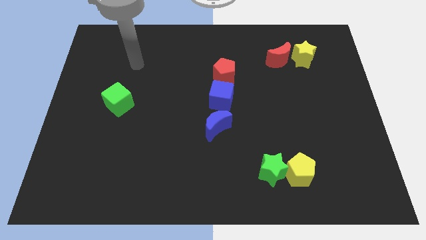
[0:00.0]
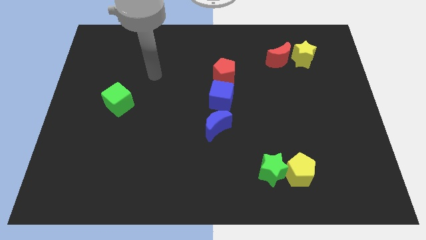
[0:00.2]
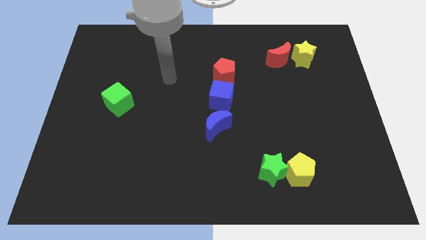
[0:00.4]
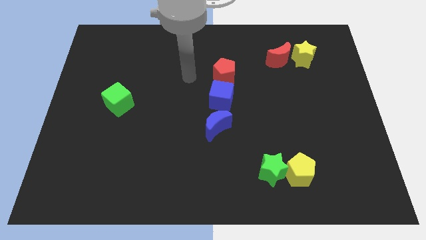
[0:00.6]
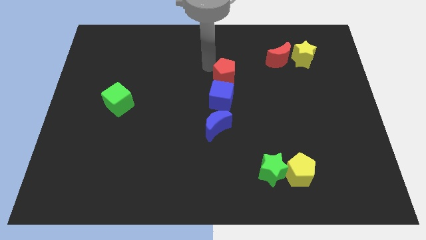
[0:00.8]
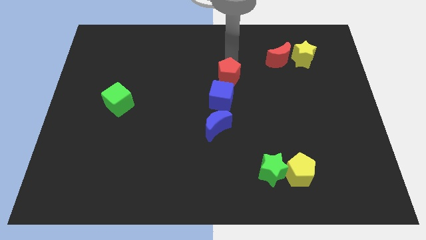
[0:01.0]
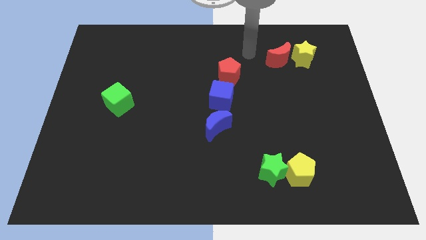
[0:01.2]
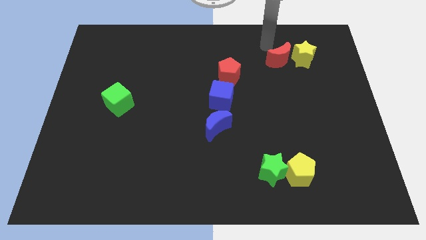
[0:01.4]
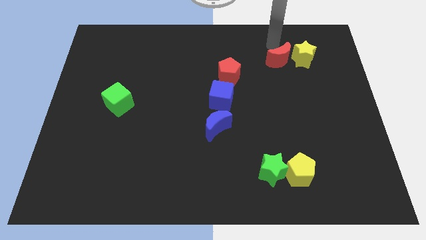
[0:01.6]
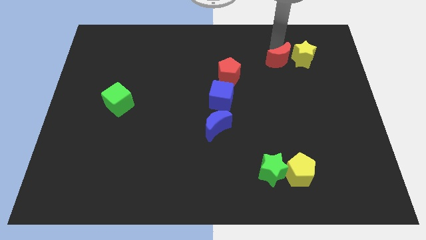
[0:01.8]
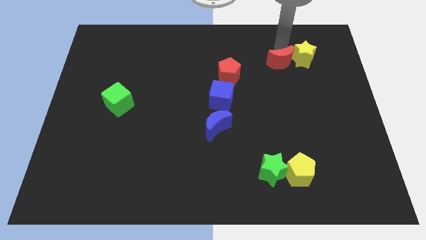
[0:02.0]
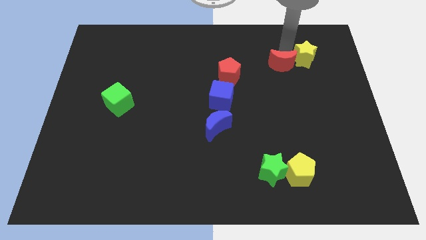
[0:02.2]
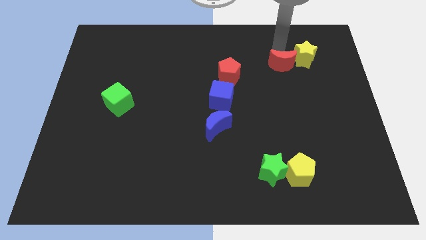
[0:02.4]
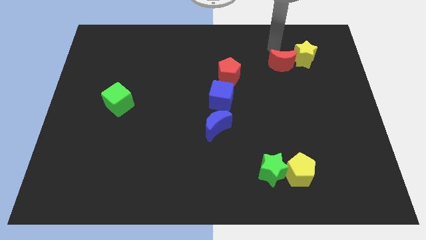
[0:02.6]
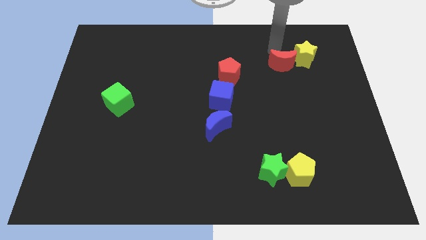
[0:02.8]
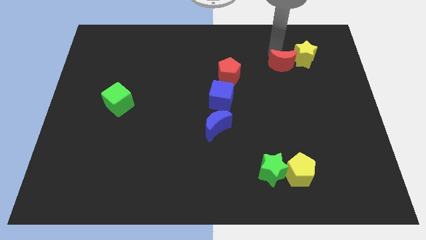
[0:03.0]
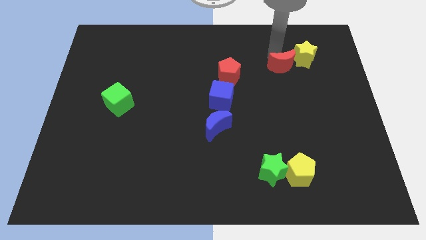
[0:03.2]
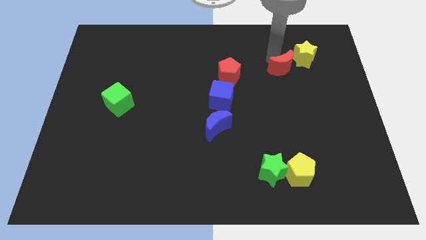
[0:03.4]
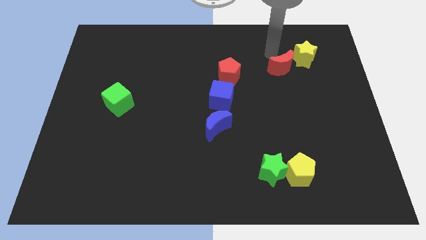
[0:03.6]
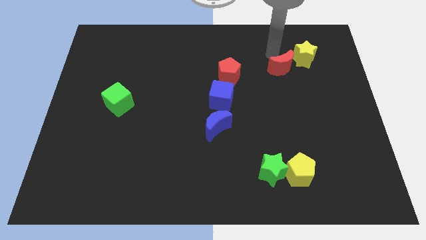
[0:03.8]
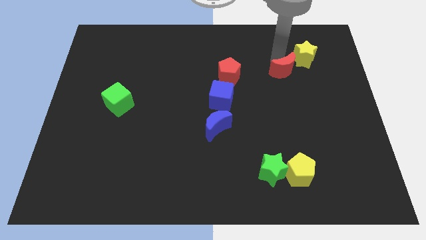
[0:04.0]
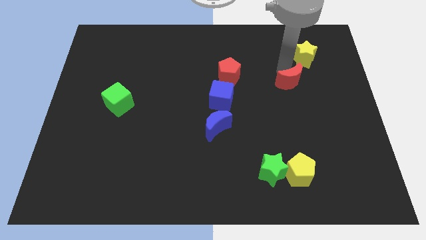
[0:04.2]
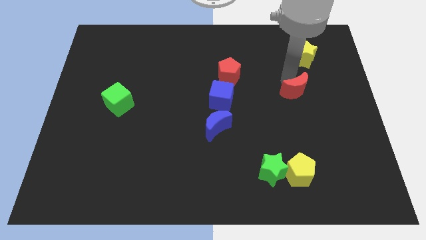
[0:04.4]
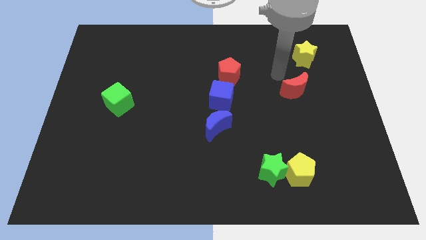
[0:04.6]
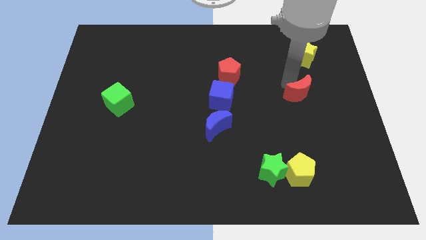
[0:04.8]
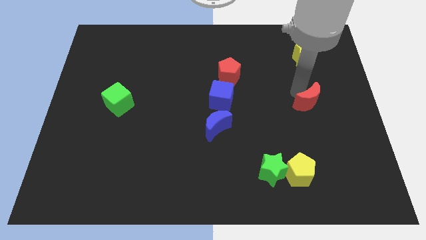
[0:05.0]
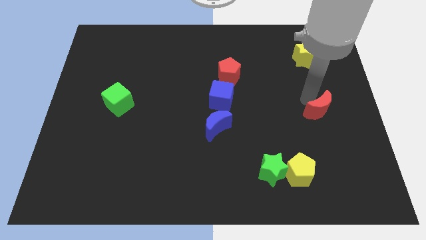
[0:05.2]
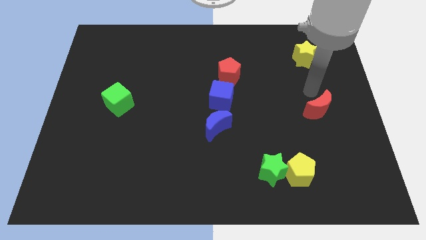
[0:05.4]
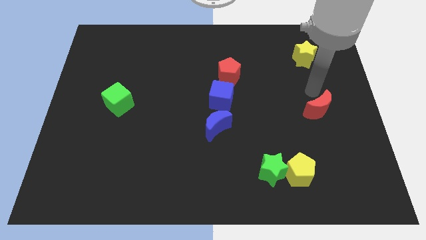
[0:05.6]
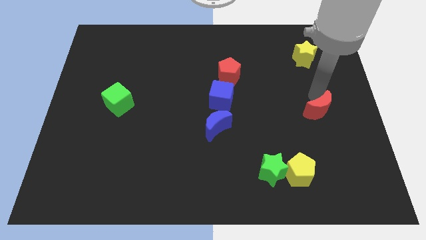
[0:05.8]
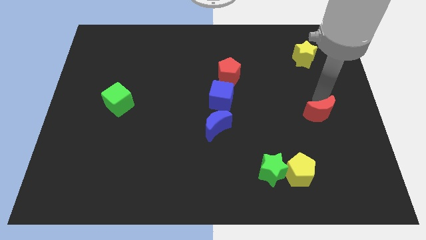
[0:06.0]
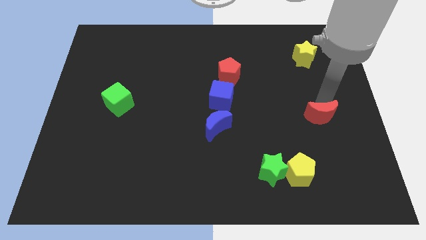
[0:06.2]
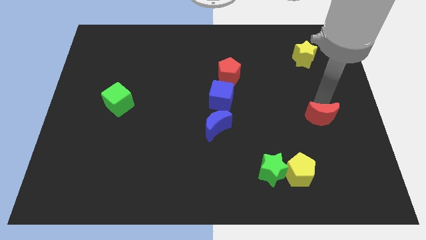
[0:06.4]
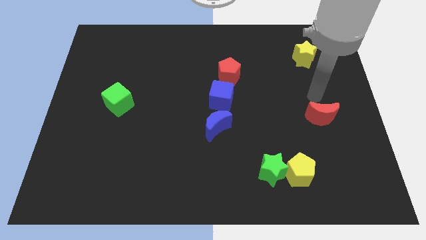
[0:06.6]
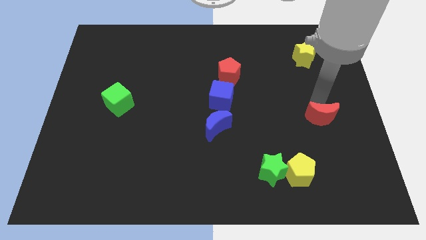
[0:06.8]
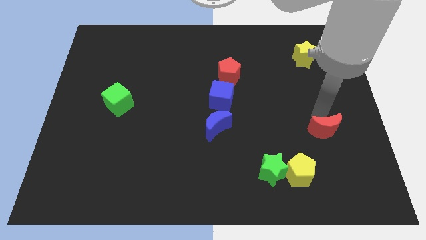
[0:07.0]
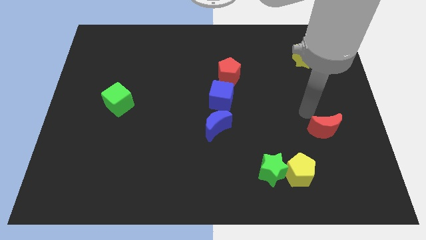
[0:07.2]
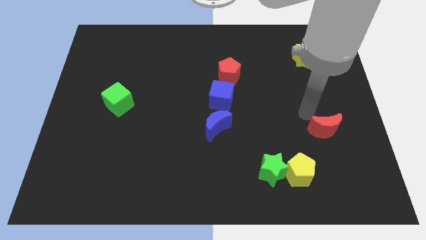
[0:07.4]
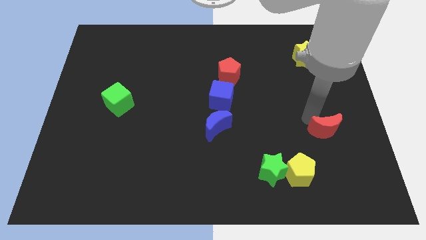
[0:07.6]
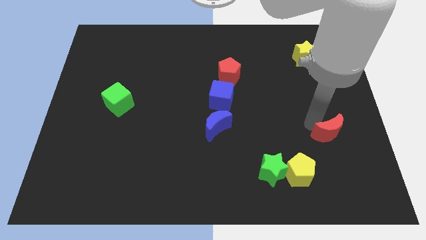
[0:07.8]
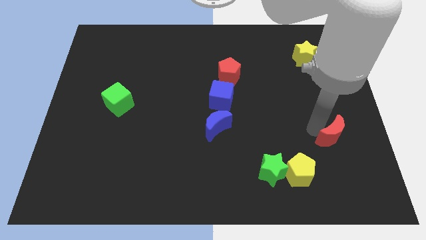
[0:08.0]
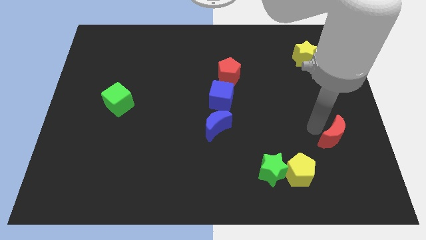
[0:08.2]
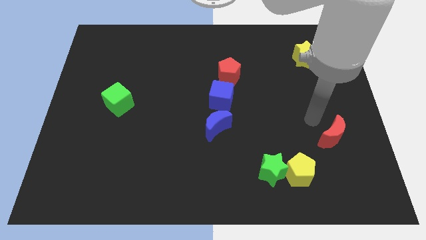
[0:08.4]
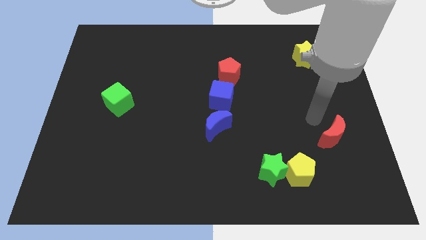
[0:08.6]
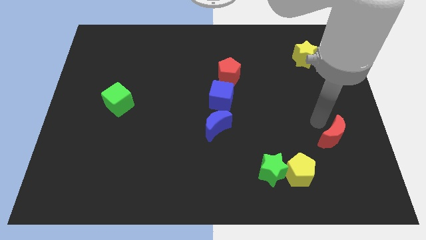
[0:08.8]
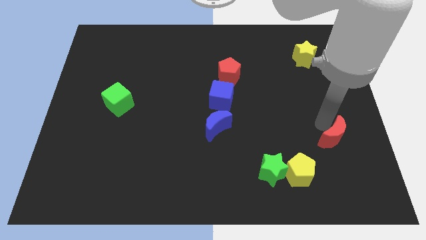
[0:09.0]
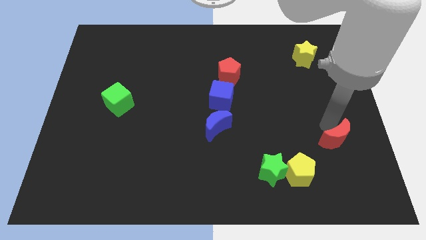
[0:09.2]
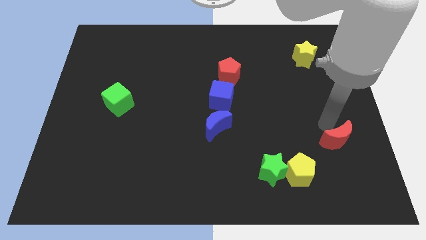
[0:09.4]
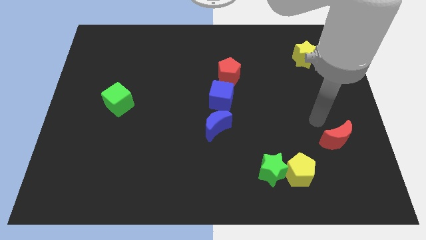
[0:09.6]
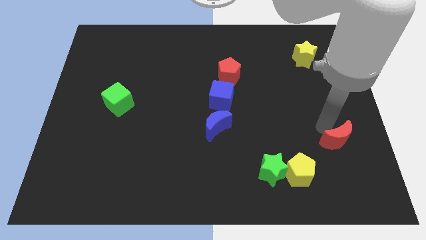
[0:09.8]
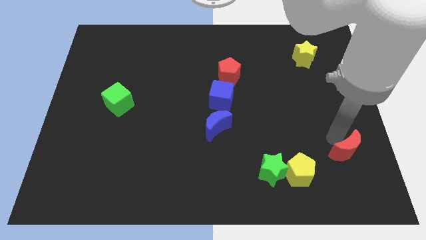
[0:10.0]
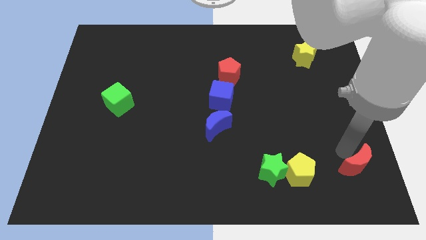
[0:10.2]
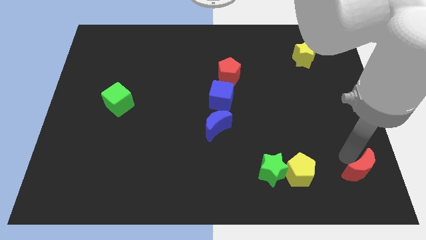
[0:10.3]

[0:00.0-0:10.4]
put the red moon to the bottom right corner
